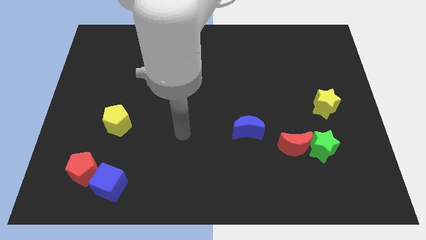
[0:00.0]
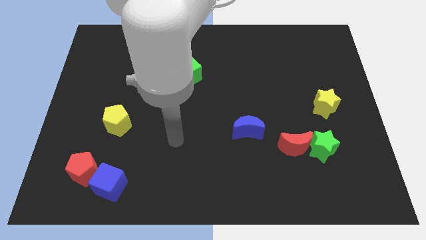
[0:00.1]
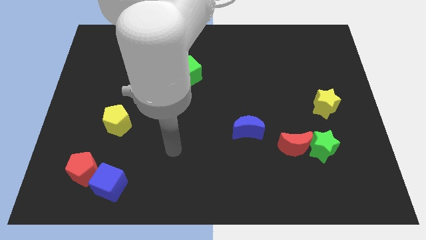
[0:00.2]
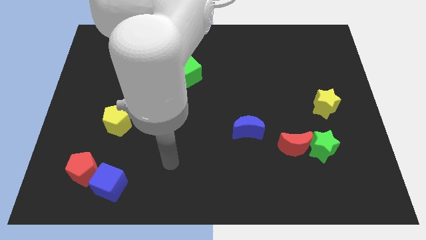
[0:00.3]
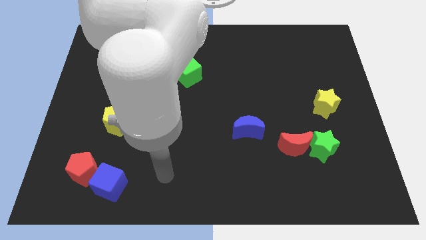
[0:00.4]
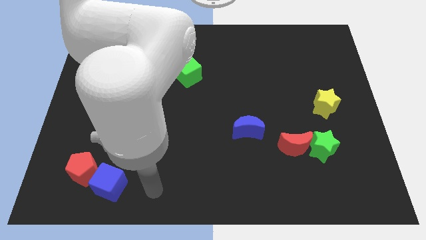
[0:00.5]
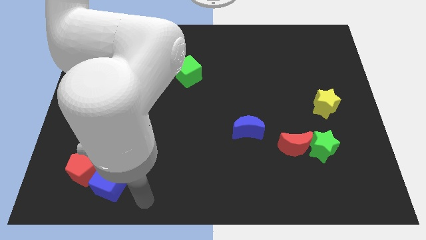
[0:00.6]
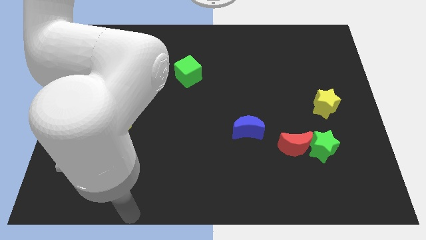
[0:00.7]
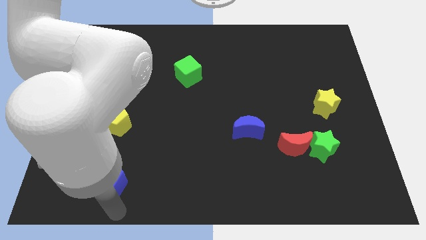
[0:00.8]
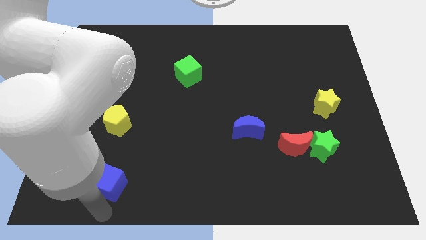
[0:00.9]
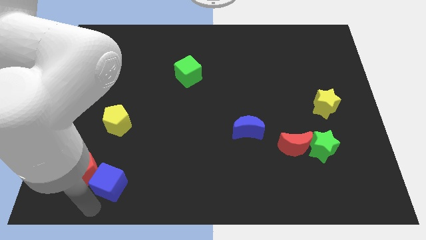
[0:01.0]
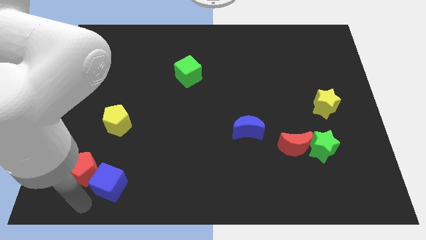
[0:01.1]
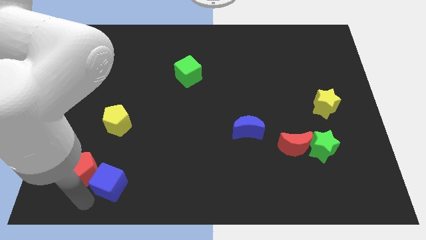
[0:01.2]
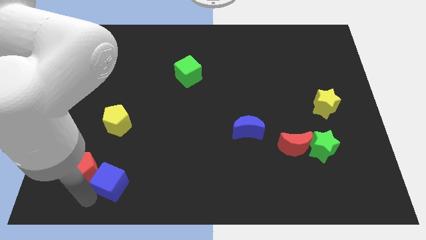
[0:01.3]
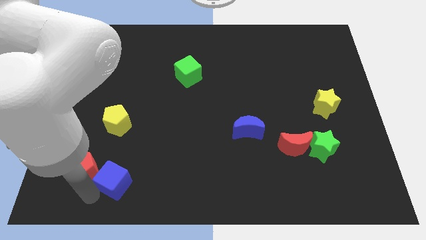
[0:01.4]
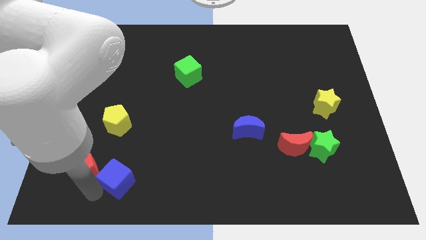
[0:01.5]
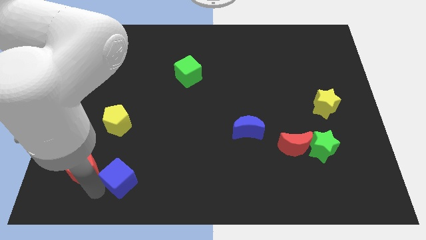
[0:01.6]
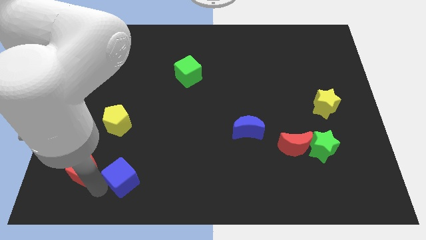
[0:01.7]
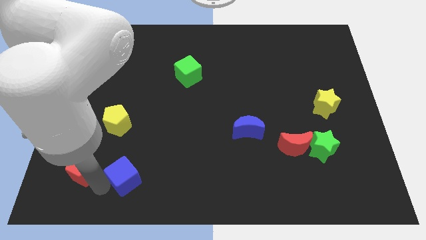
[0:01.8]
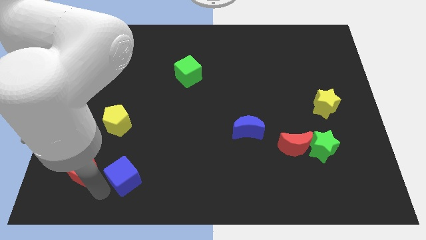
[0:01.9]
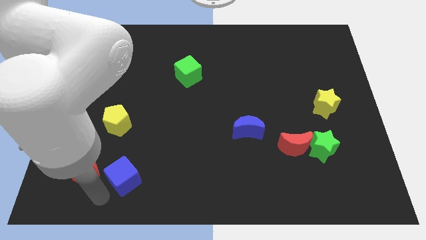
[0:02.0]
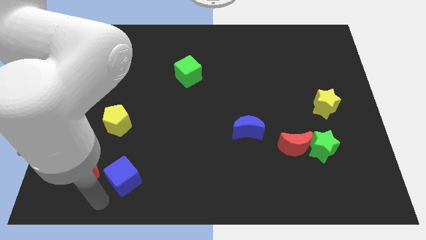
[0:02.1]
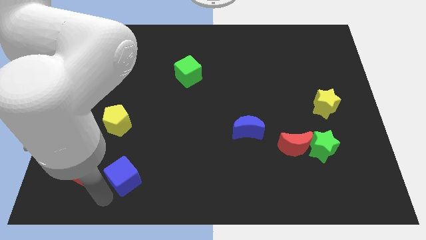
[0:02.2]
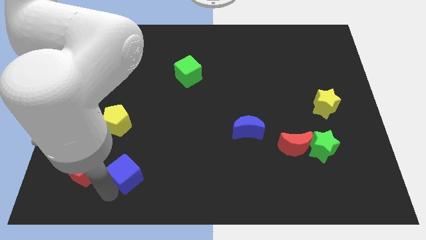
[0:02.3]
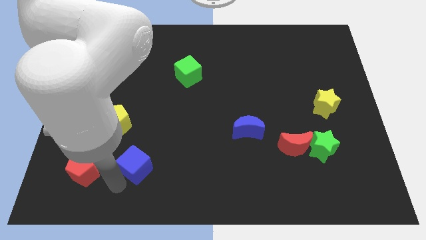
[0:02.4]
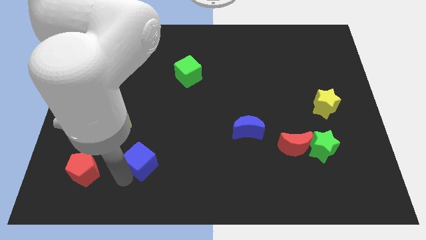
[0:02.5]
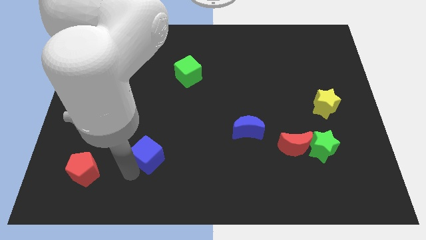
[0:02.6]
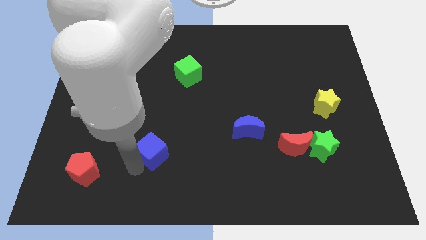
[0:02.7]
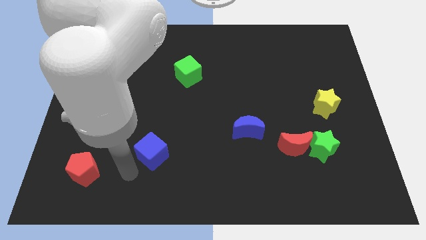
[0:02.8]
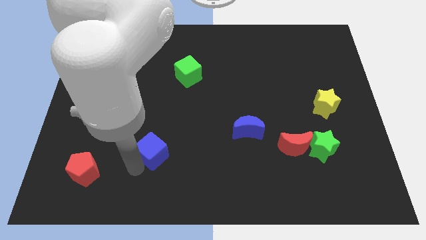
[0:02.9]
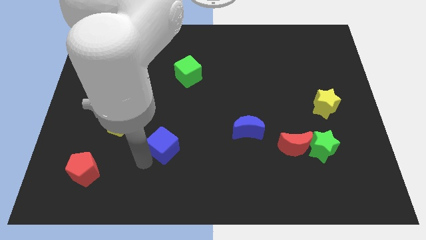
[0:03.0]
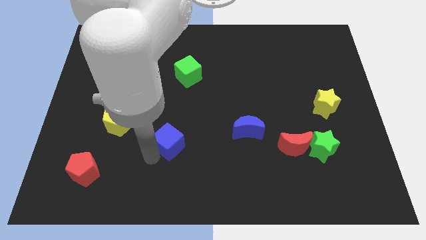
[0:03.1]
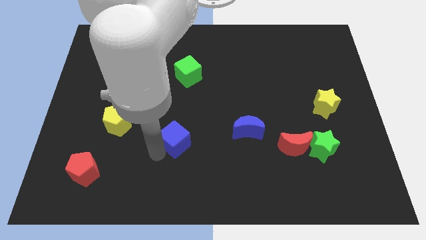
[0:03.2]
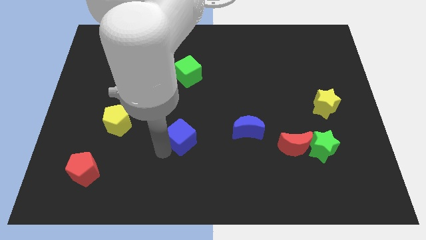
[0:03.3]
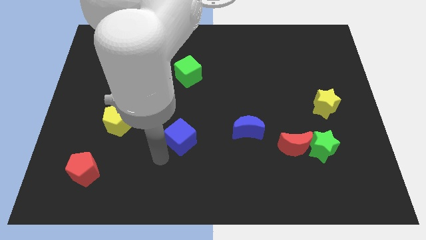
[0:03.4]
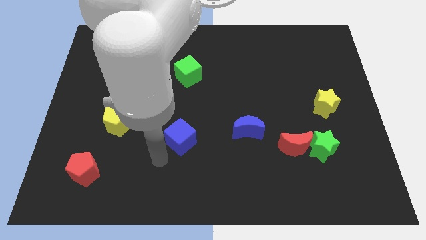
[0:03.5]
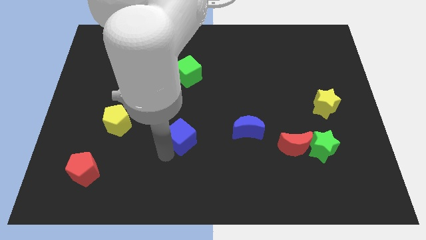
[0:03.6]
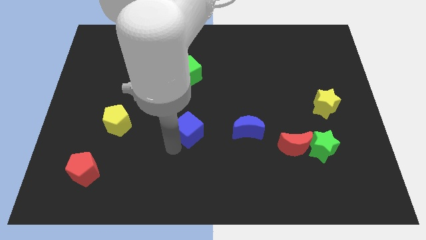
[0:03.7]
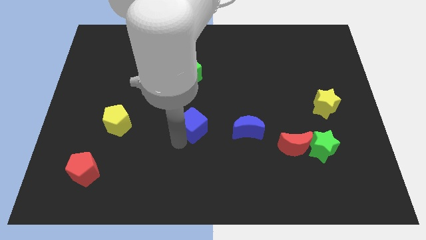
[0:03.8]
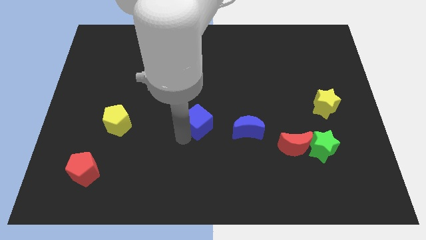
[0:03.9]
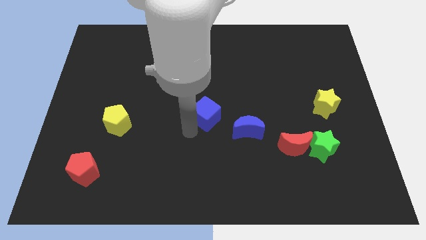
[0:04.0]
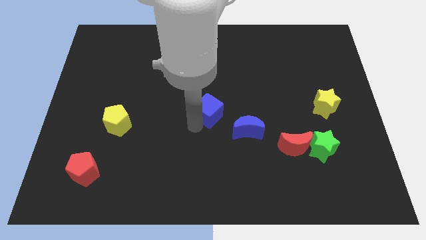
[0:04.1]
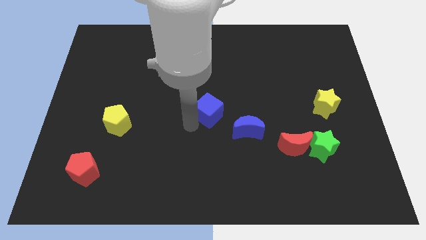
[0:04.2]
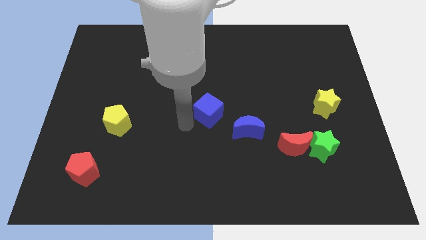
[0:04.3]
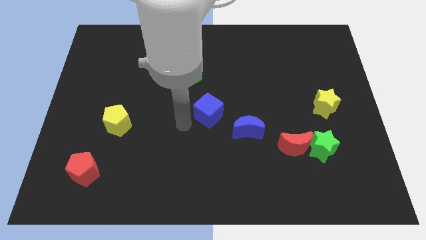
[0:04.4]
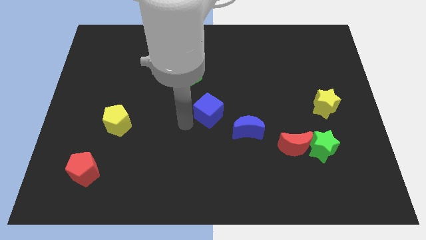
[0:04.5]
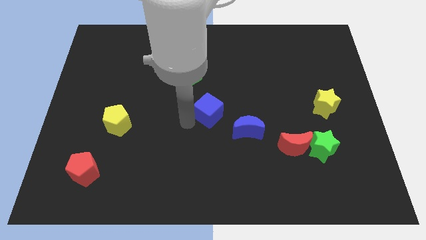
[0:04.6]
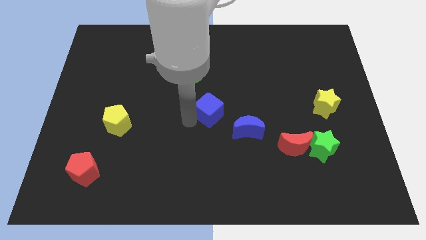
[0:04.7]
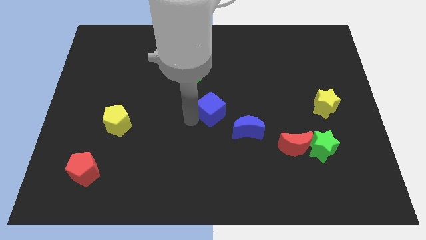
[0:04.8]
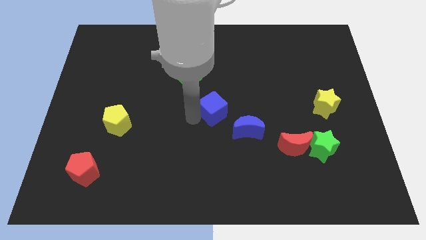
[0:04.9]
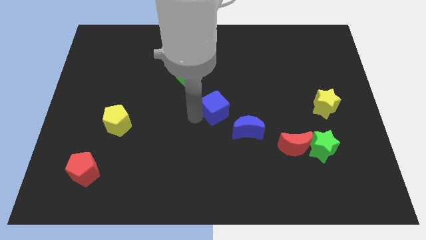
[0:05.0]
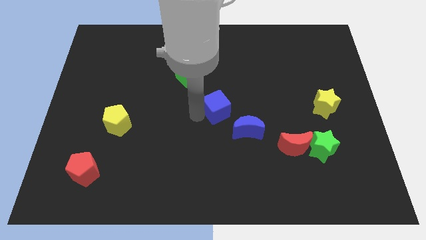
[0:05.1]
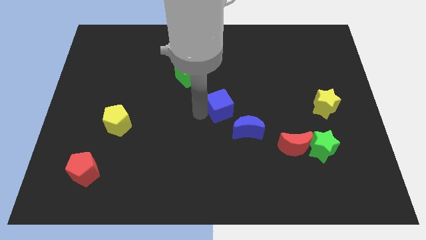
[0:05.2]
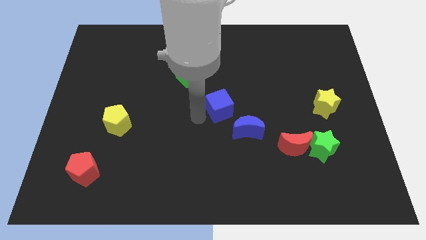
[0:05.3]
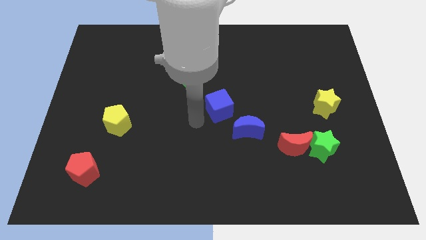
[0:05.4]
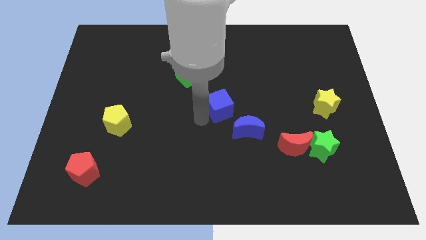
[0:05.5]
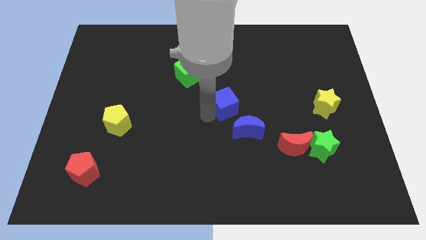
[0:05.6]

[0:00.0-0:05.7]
push the blue cube to the top of the blue moon
